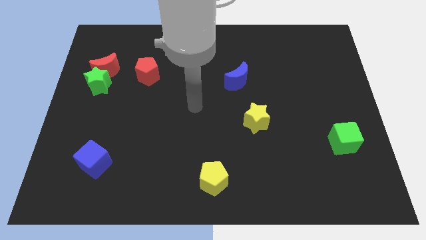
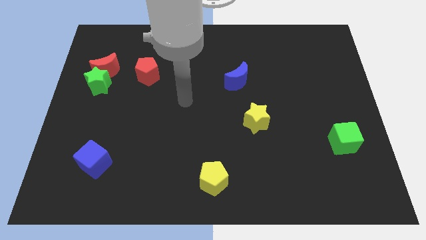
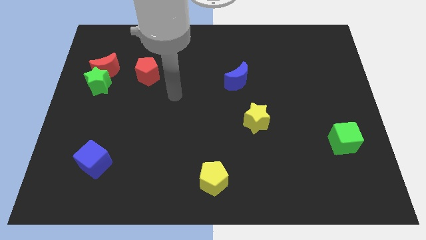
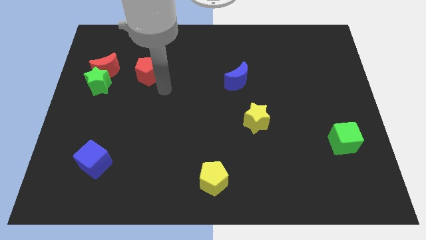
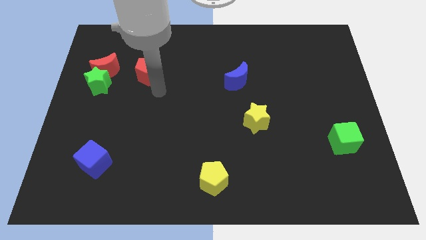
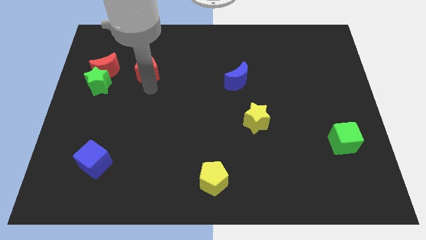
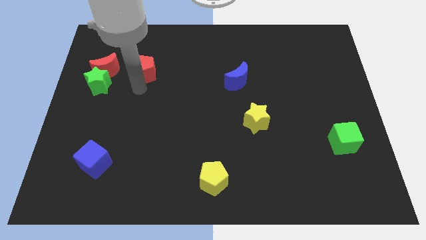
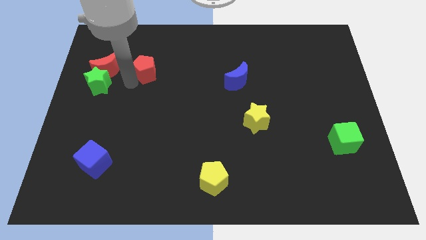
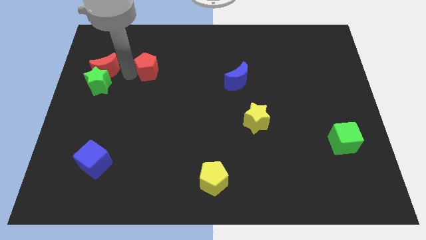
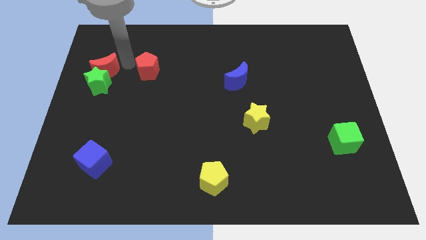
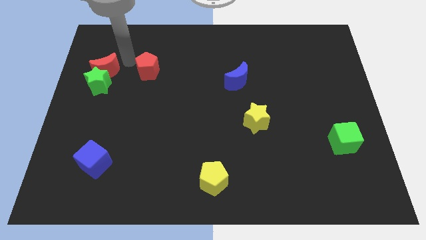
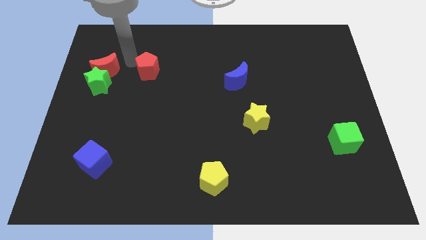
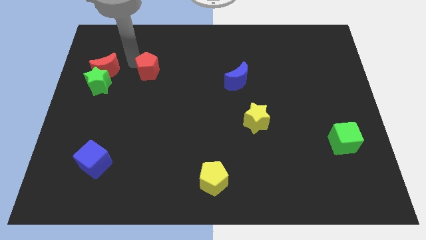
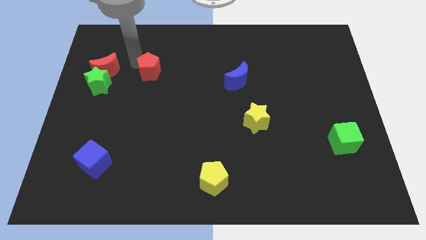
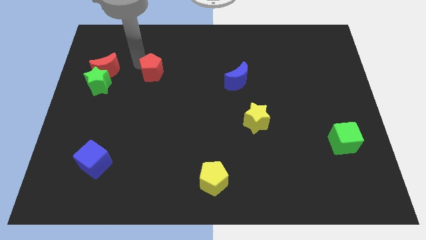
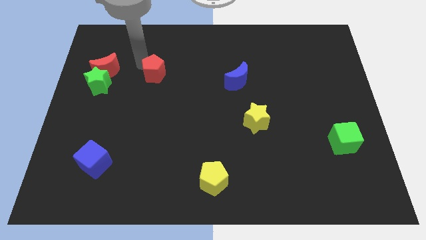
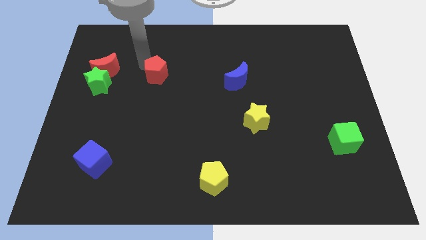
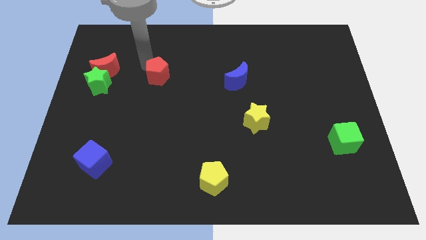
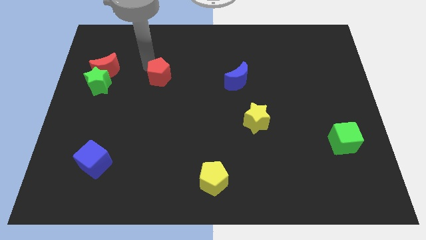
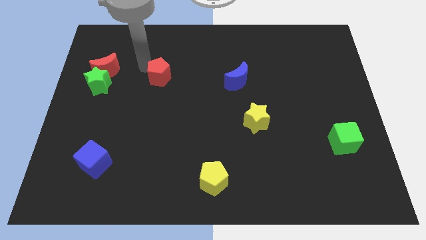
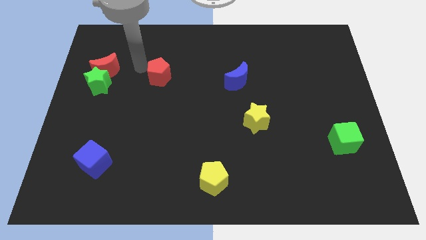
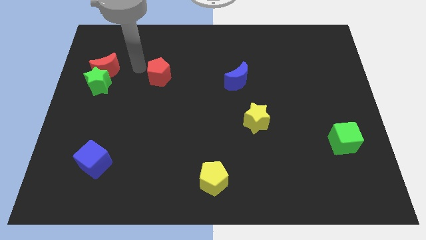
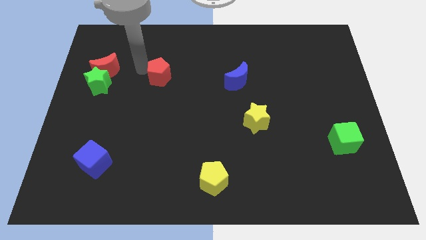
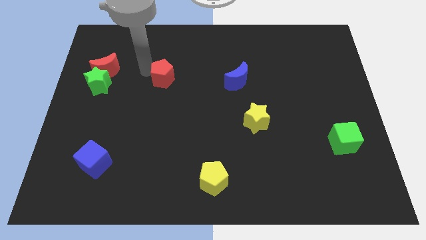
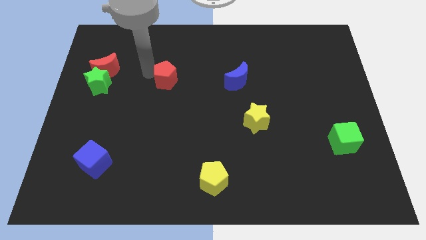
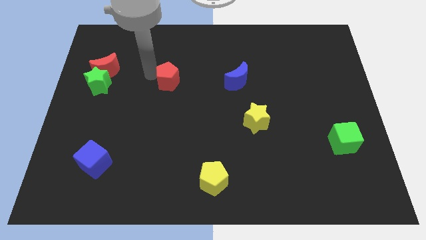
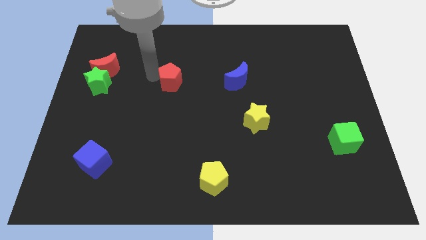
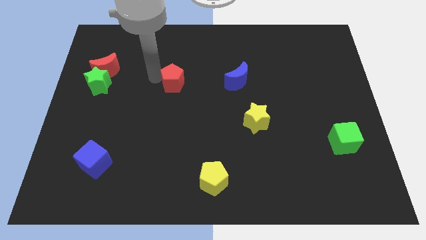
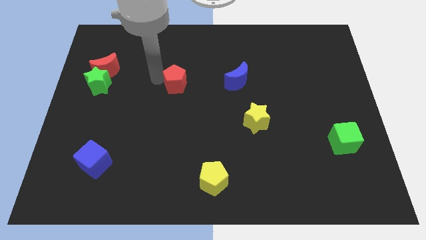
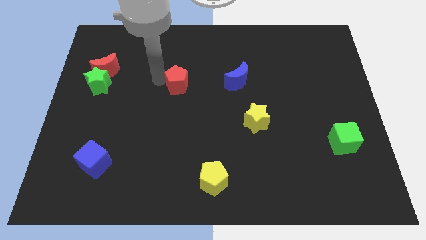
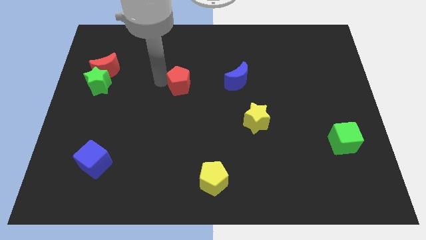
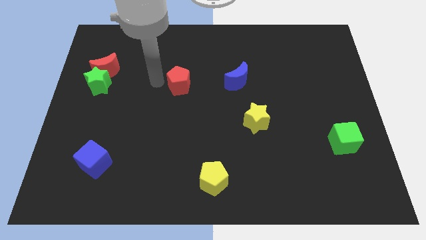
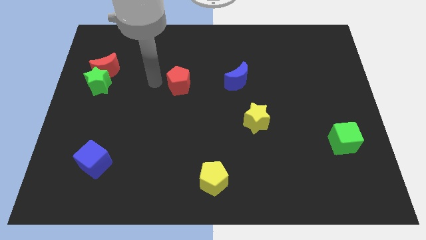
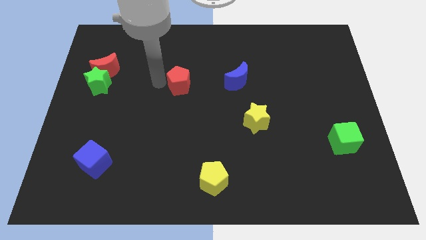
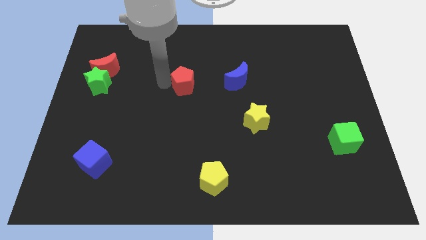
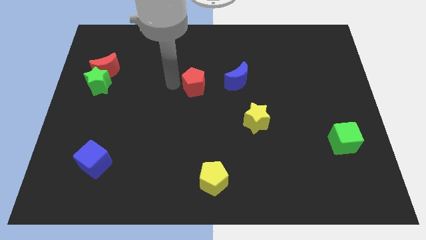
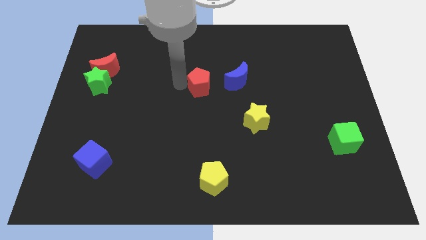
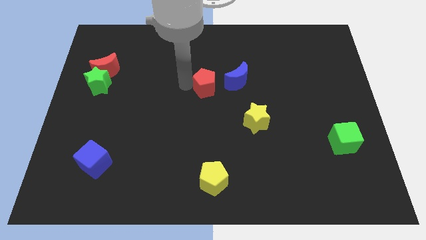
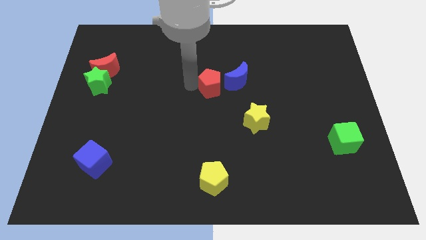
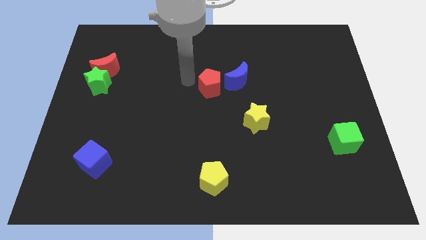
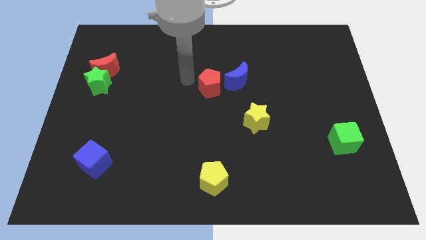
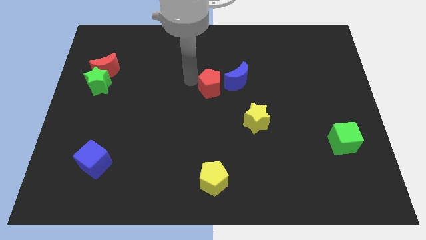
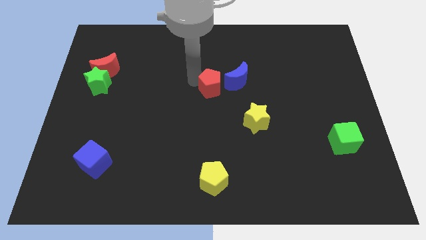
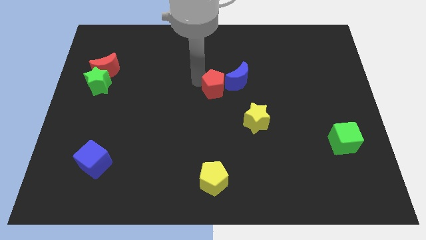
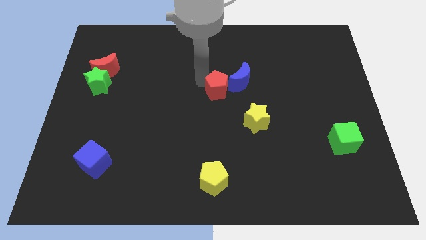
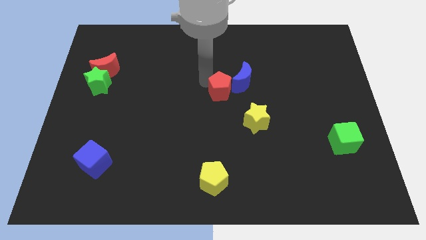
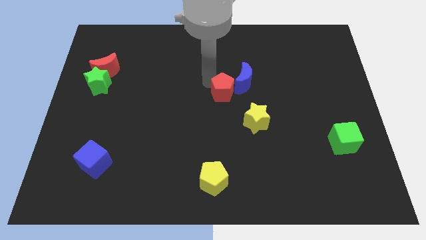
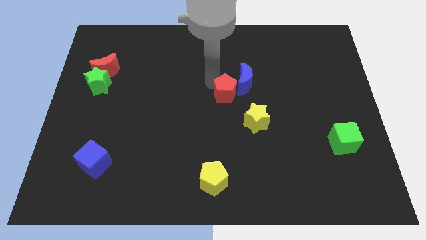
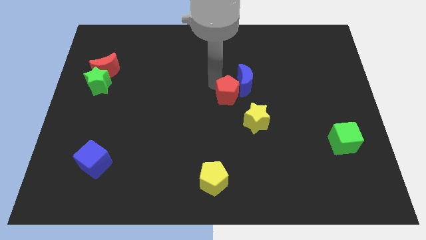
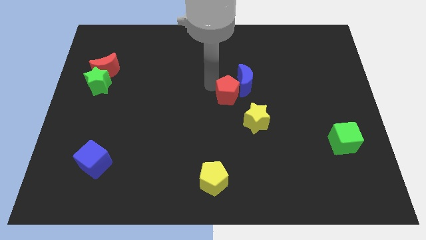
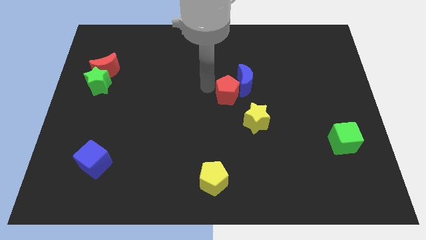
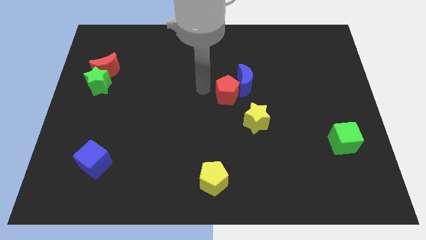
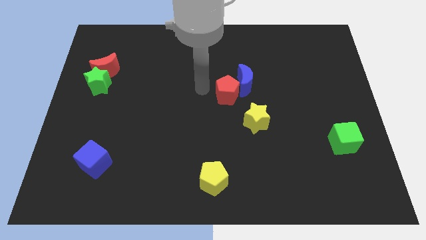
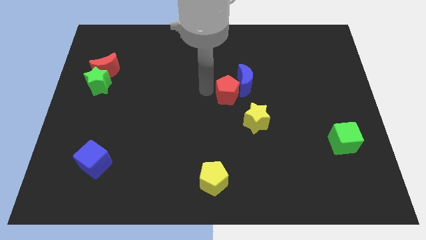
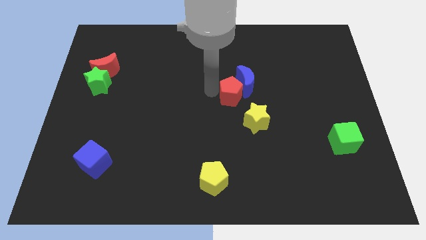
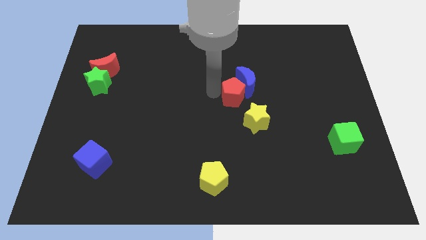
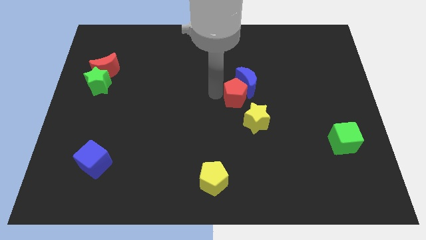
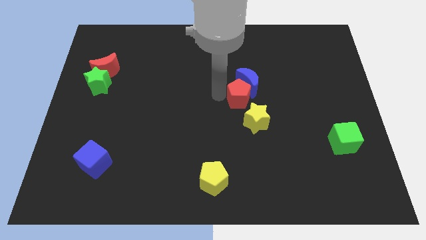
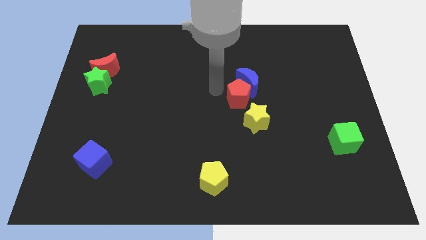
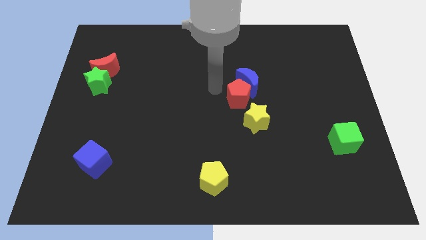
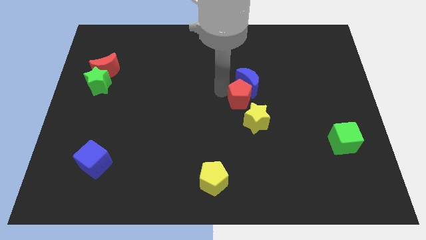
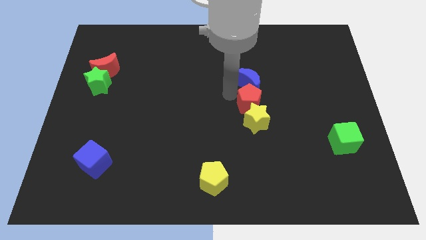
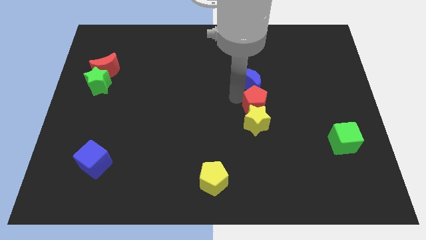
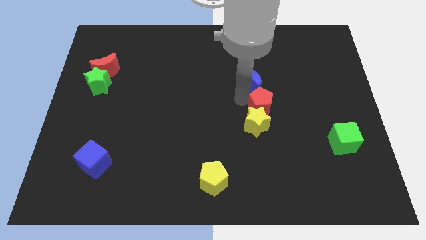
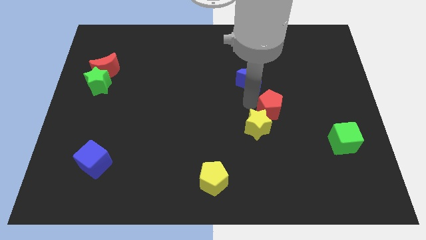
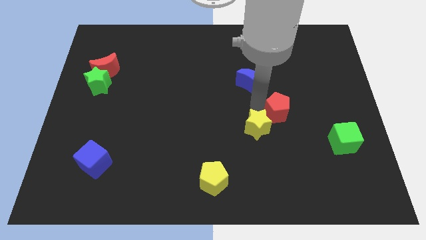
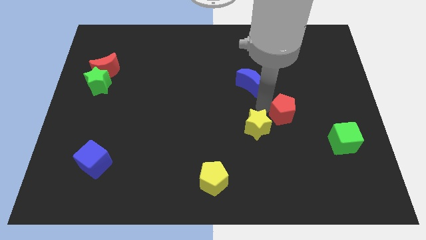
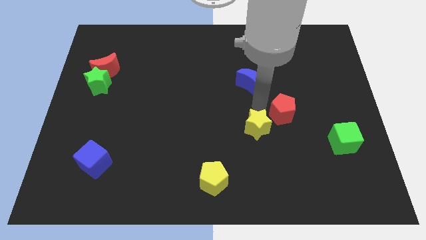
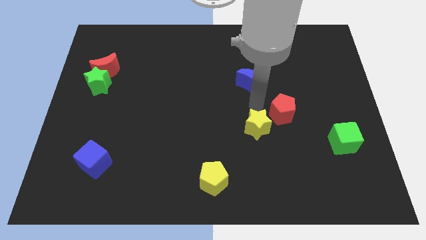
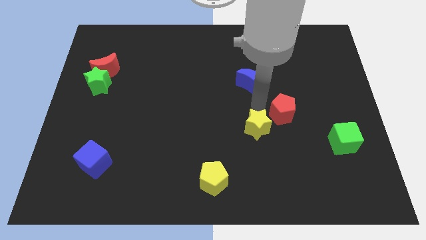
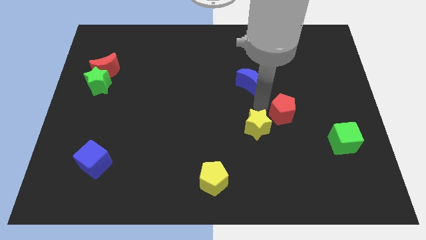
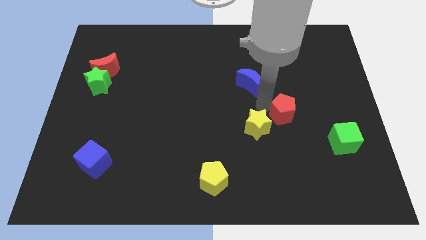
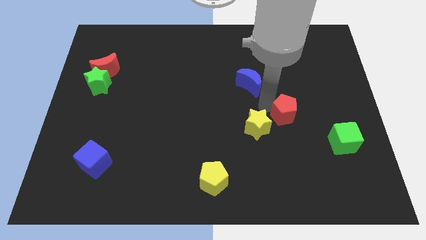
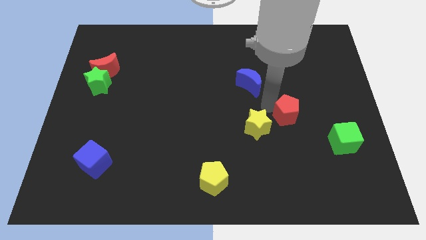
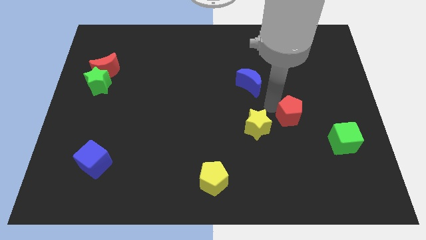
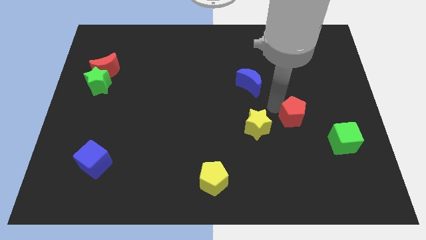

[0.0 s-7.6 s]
push the red pentagon to the top left of the green cube
